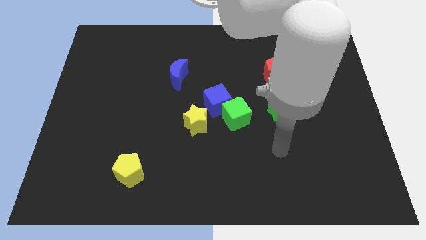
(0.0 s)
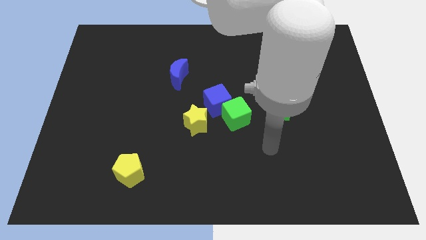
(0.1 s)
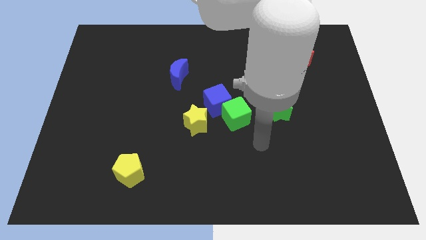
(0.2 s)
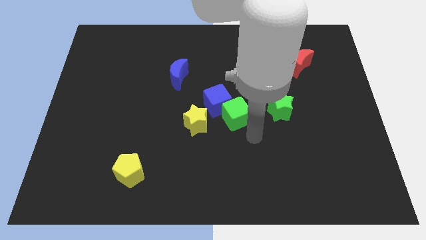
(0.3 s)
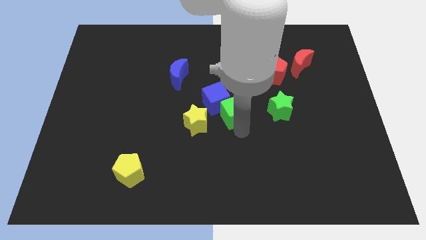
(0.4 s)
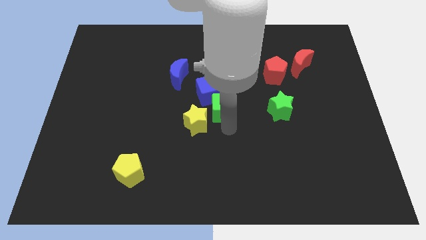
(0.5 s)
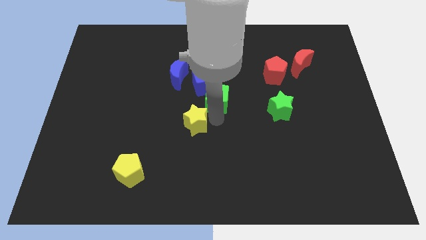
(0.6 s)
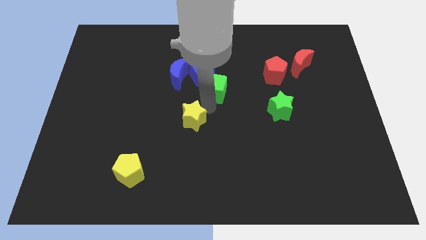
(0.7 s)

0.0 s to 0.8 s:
separate the blue cube from the green cube and yellow star

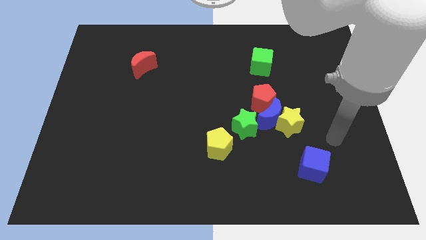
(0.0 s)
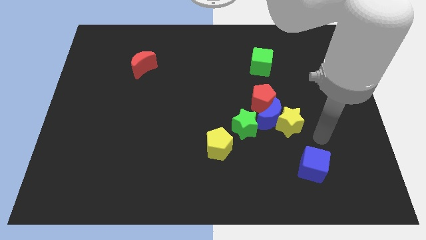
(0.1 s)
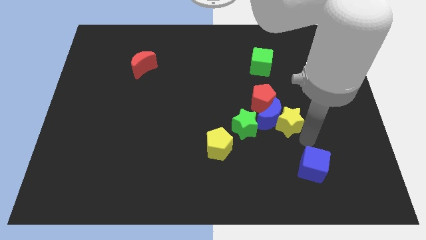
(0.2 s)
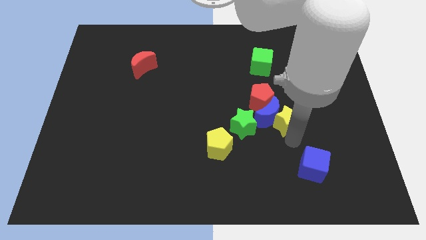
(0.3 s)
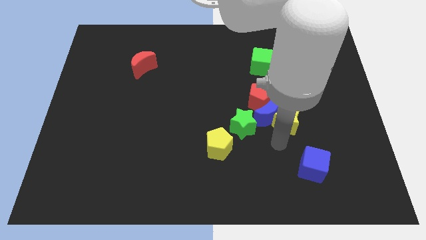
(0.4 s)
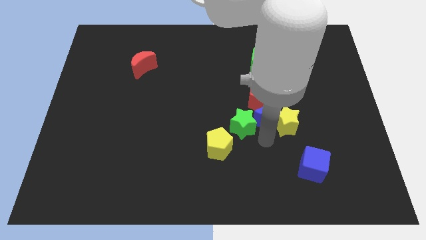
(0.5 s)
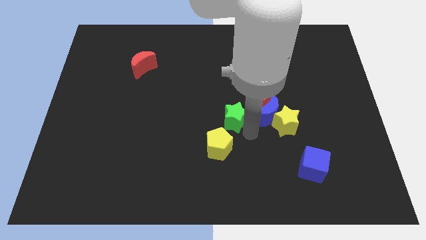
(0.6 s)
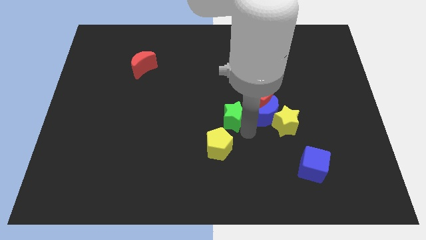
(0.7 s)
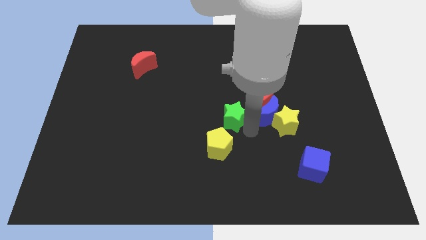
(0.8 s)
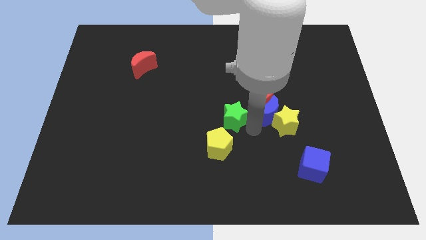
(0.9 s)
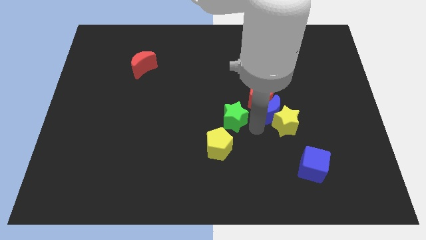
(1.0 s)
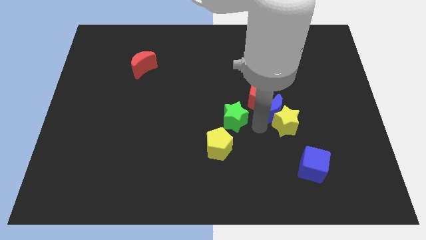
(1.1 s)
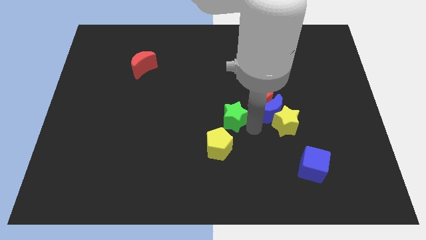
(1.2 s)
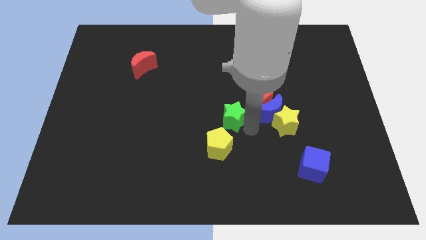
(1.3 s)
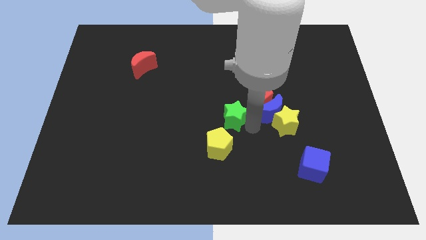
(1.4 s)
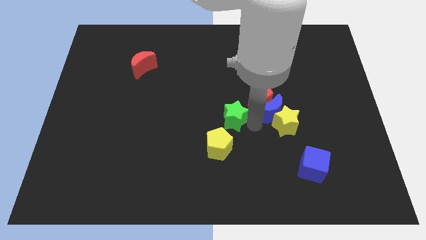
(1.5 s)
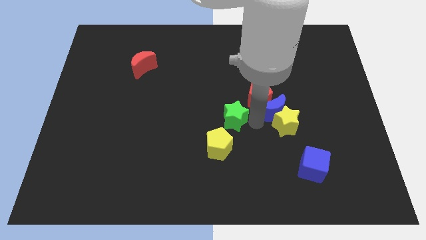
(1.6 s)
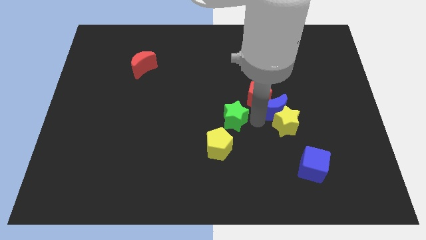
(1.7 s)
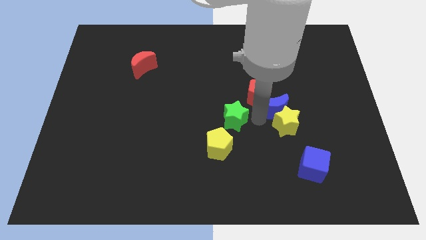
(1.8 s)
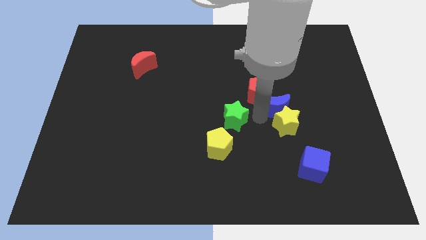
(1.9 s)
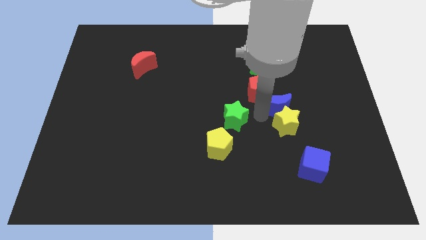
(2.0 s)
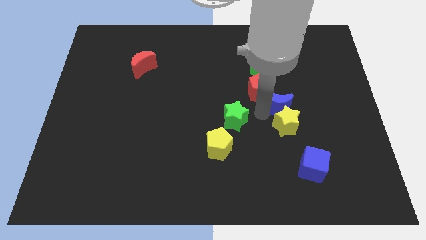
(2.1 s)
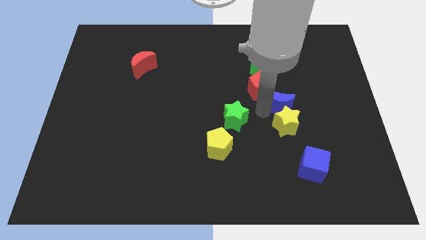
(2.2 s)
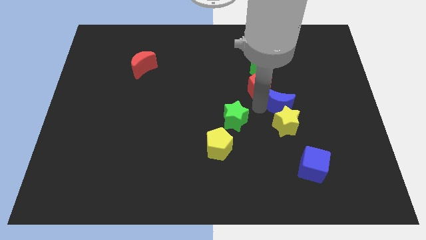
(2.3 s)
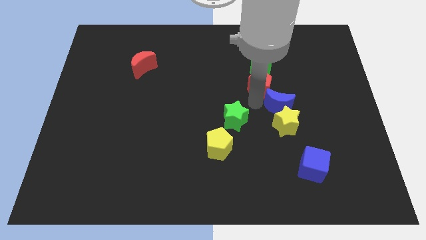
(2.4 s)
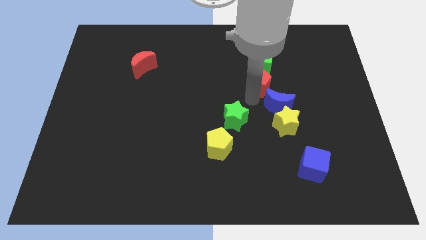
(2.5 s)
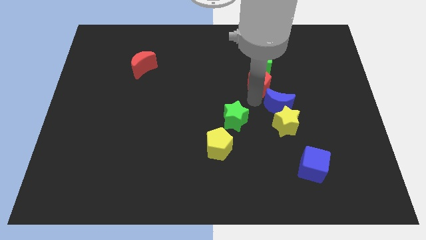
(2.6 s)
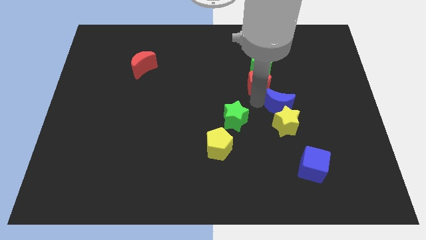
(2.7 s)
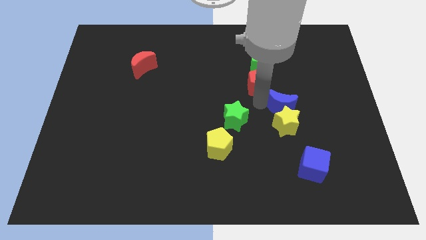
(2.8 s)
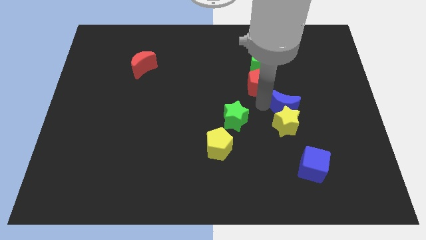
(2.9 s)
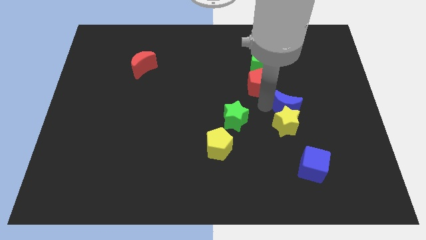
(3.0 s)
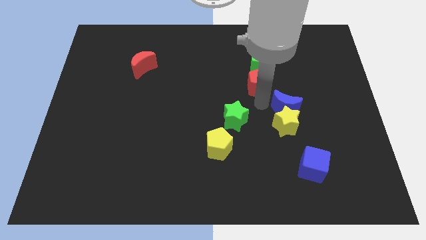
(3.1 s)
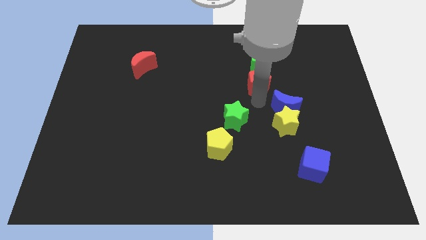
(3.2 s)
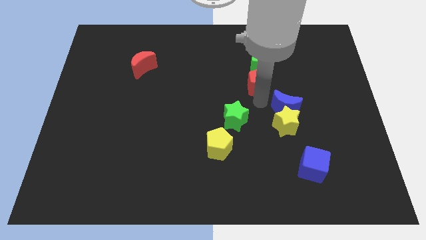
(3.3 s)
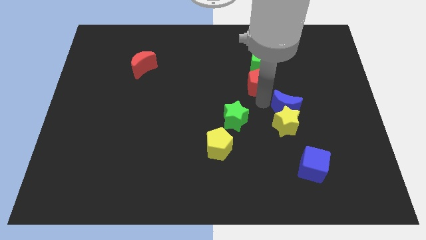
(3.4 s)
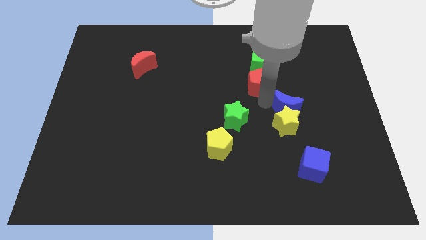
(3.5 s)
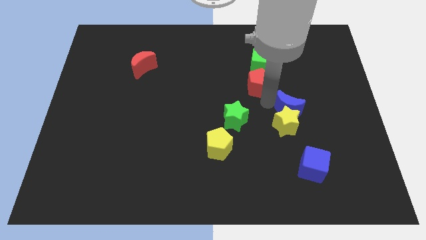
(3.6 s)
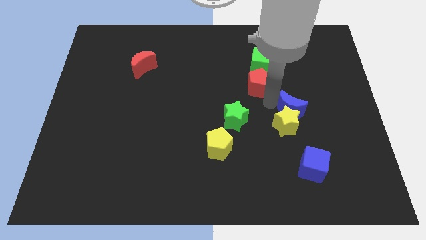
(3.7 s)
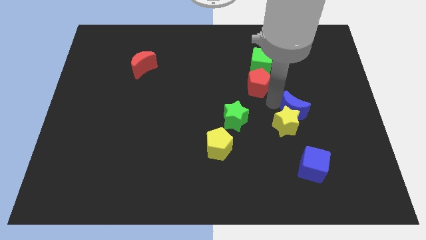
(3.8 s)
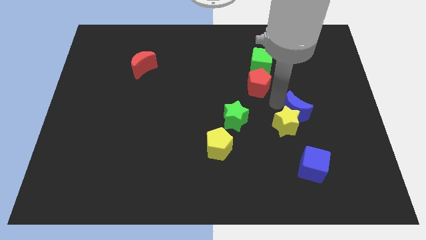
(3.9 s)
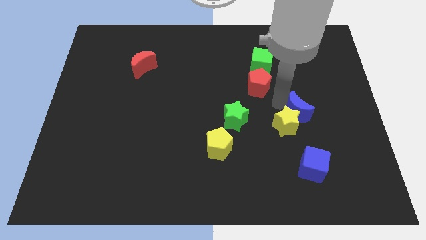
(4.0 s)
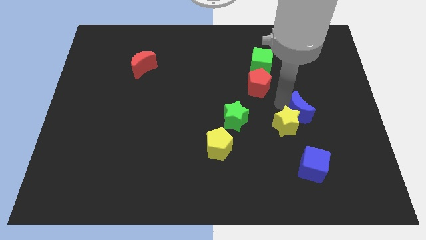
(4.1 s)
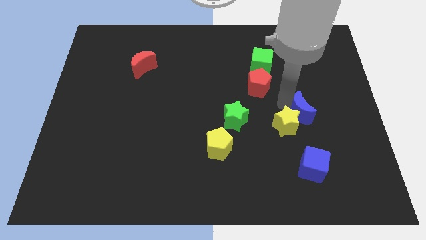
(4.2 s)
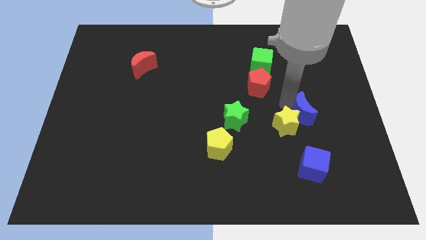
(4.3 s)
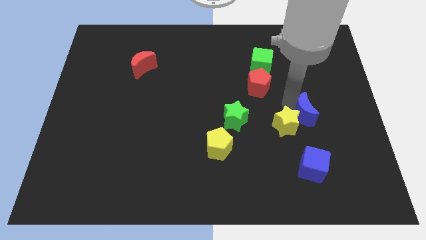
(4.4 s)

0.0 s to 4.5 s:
separate the blue moon from the yellow star, red pentagon, and green star

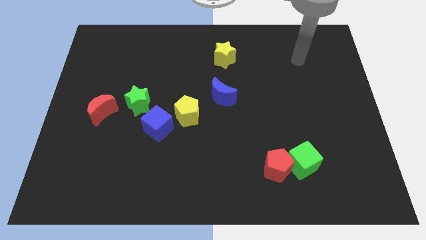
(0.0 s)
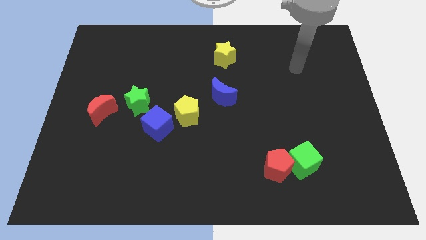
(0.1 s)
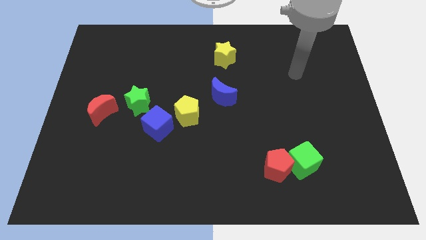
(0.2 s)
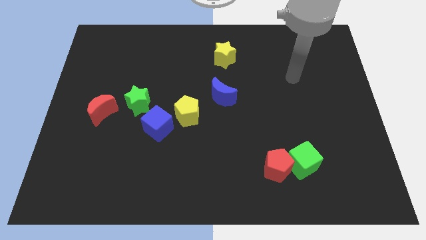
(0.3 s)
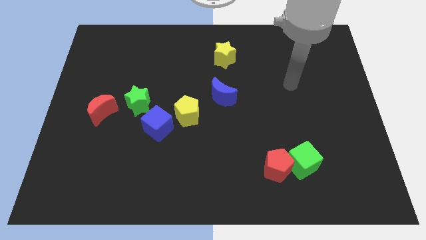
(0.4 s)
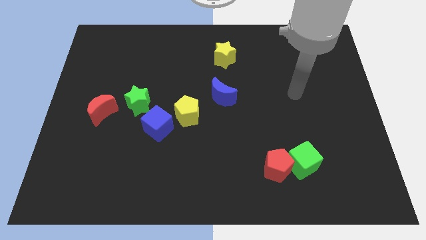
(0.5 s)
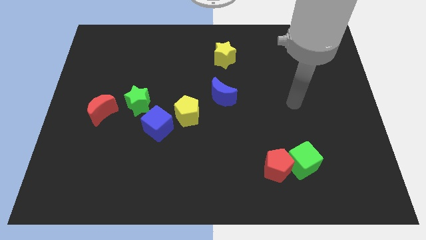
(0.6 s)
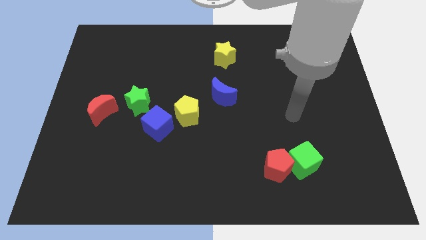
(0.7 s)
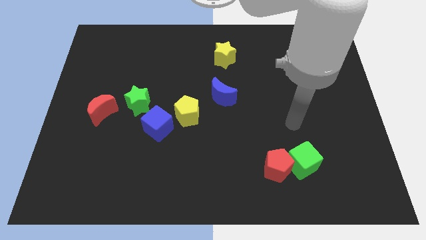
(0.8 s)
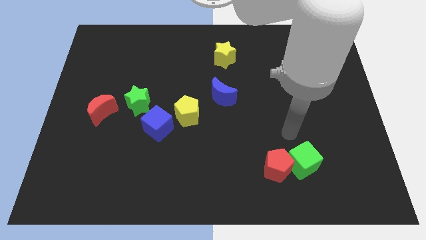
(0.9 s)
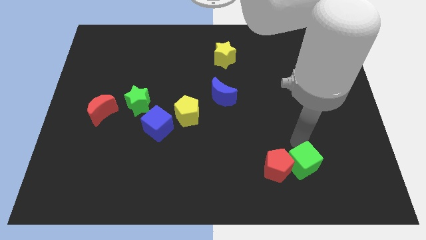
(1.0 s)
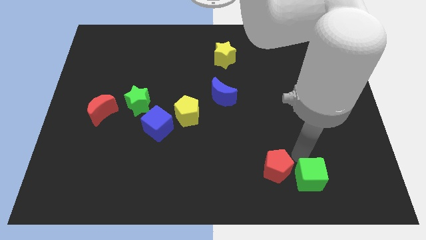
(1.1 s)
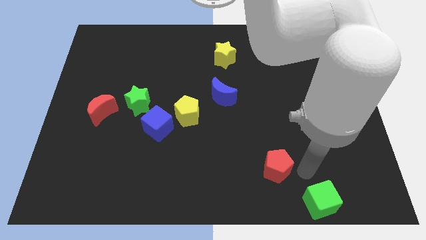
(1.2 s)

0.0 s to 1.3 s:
separate the red pentagon from the green cube

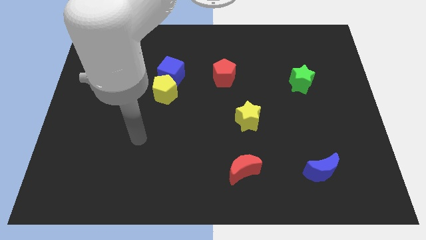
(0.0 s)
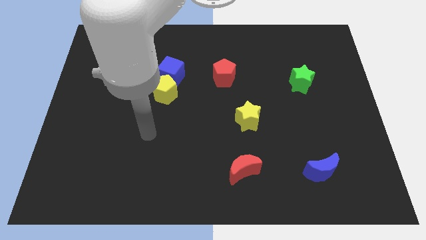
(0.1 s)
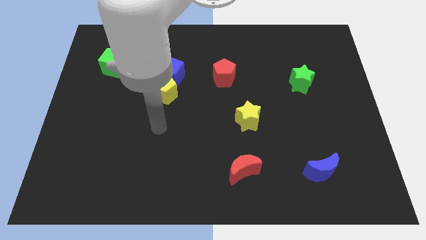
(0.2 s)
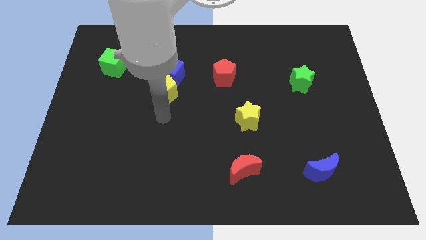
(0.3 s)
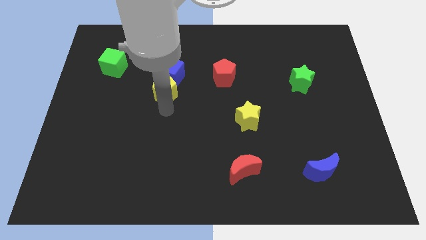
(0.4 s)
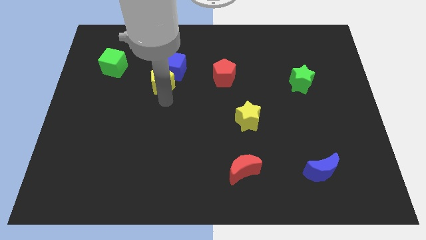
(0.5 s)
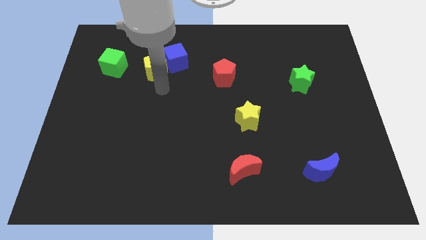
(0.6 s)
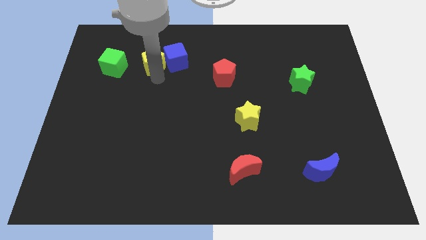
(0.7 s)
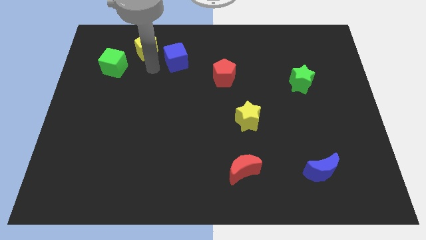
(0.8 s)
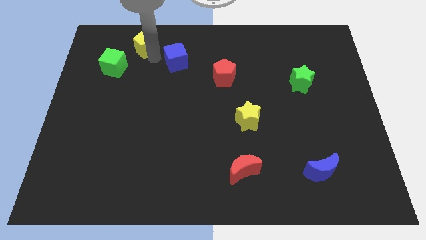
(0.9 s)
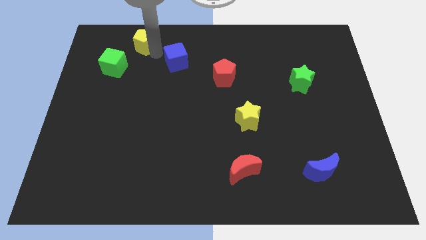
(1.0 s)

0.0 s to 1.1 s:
move the blue cube away from the yellow pentagon

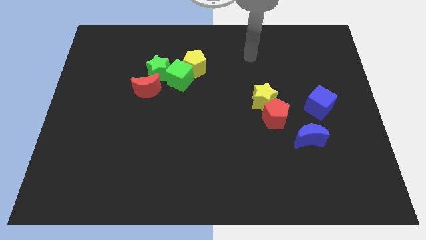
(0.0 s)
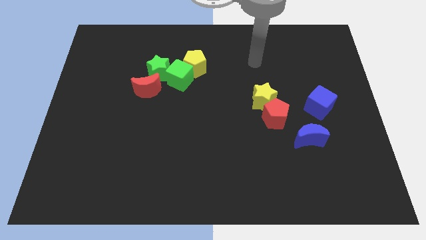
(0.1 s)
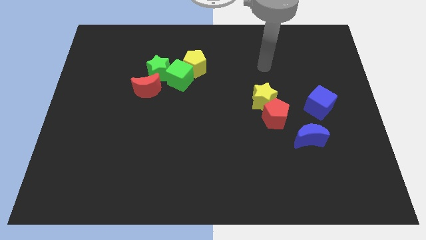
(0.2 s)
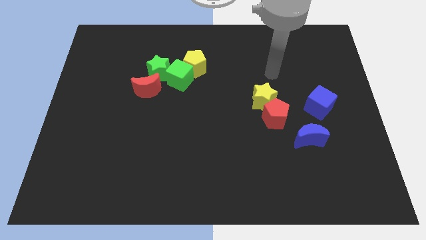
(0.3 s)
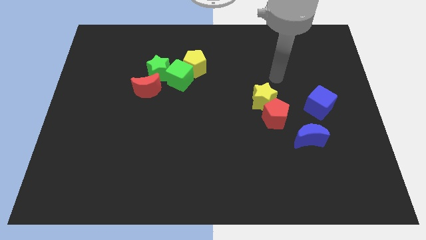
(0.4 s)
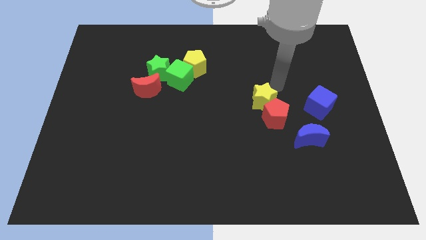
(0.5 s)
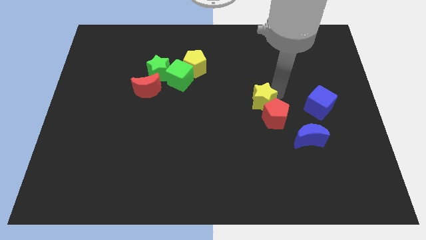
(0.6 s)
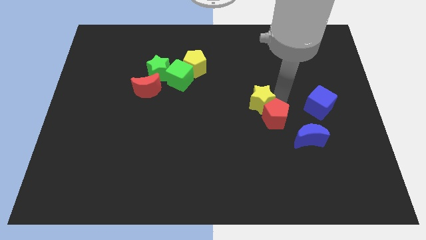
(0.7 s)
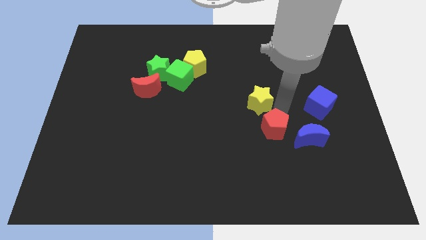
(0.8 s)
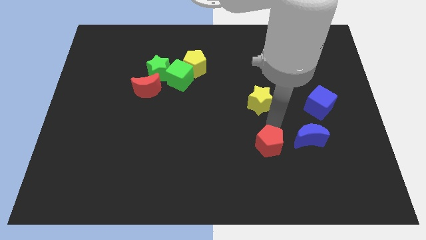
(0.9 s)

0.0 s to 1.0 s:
move the yellow star away from the red pentagon

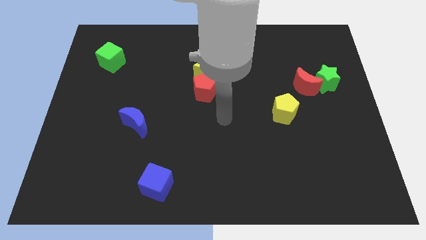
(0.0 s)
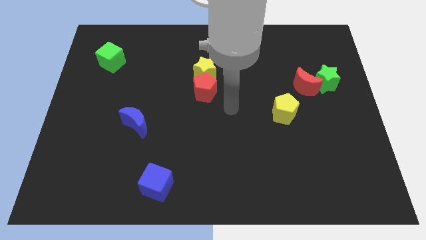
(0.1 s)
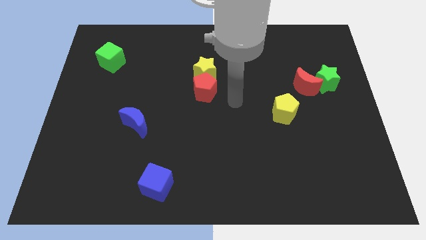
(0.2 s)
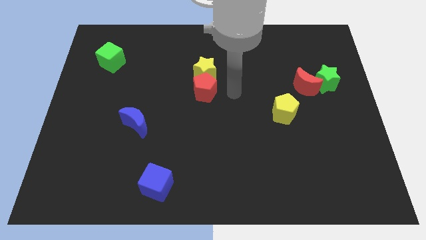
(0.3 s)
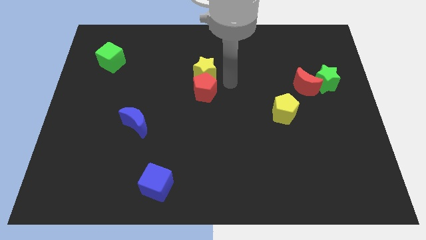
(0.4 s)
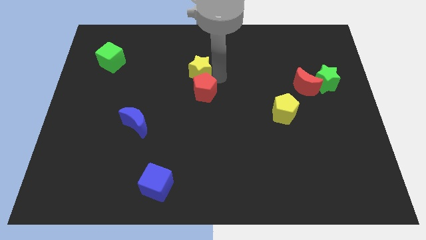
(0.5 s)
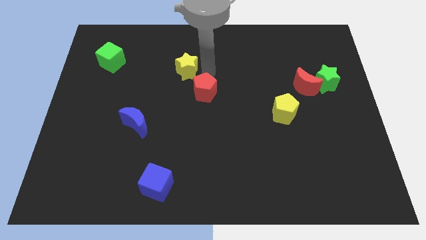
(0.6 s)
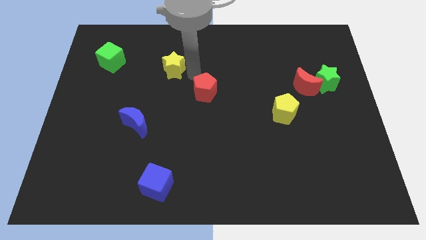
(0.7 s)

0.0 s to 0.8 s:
move the red pentagon away from the yellow star
